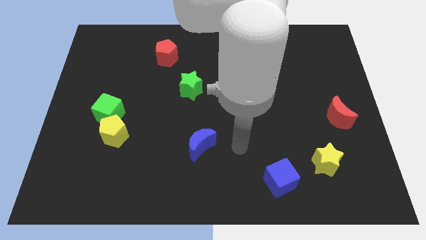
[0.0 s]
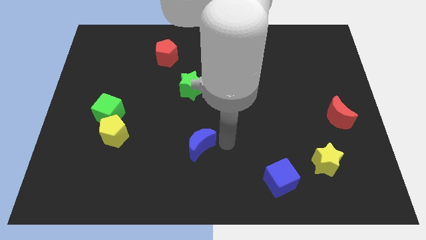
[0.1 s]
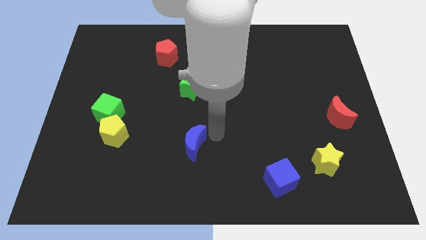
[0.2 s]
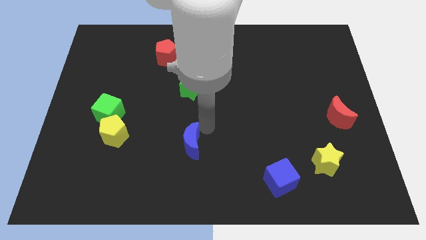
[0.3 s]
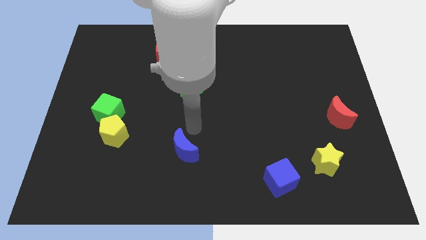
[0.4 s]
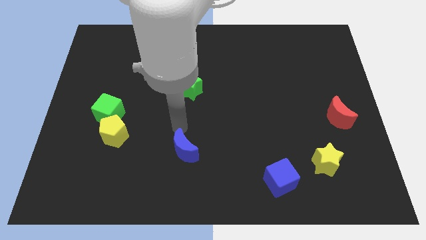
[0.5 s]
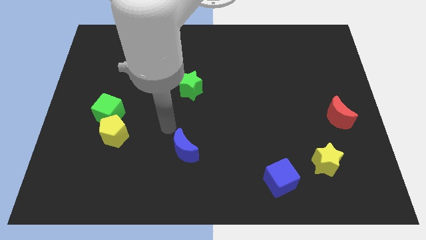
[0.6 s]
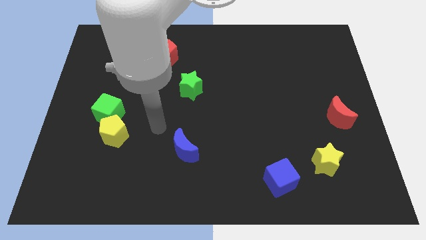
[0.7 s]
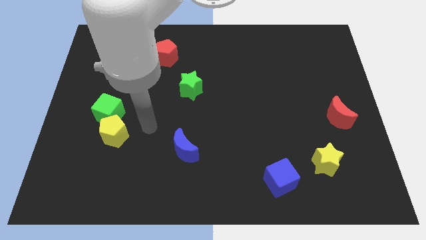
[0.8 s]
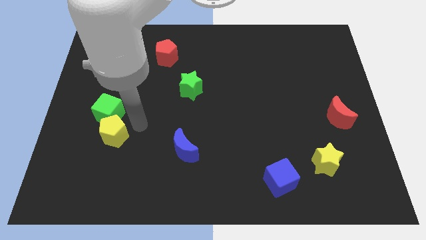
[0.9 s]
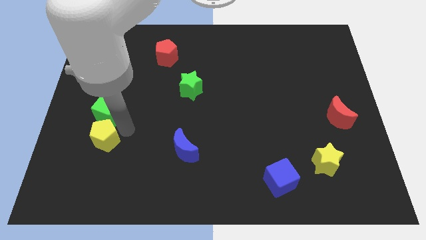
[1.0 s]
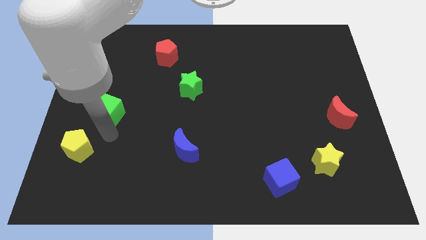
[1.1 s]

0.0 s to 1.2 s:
move the green cube away from the yellow pentagon

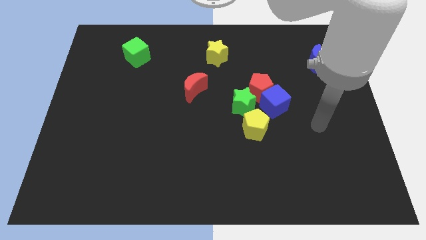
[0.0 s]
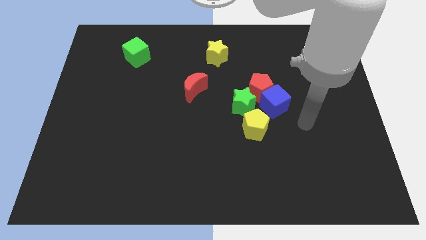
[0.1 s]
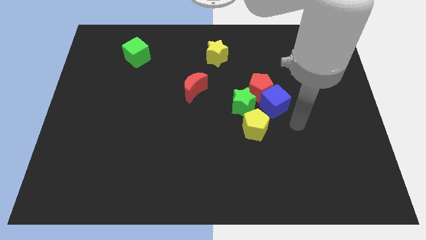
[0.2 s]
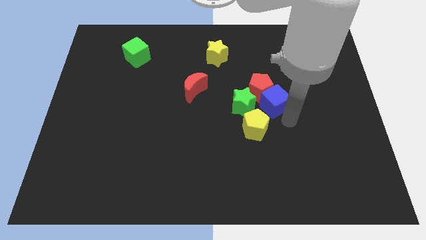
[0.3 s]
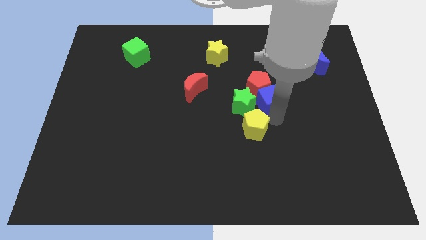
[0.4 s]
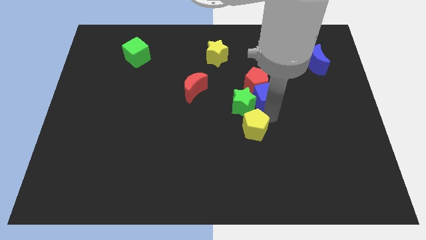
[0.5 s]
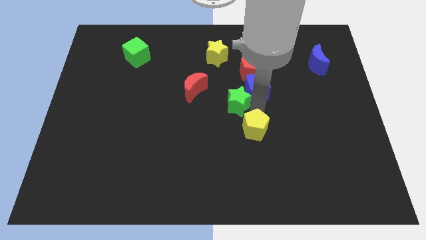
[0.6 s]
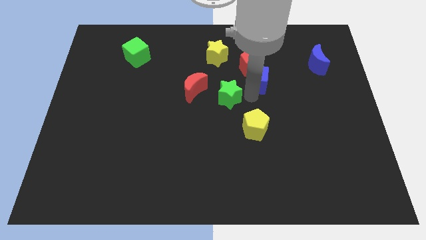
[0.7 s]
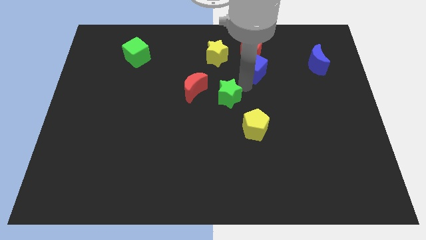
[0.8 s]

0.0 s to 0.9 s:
separate the red pentagon from the blue cube and green star

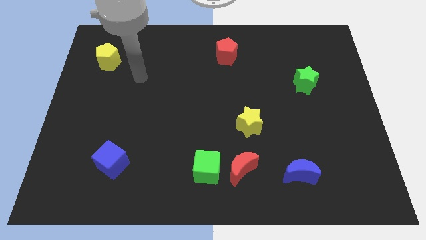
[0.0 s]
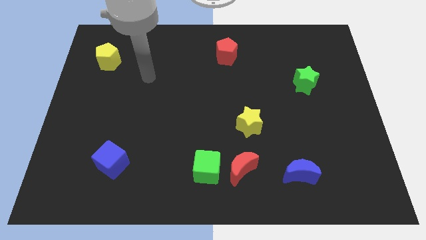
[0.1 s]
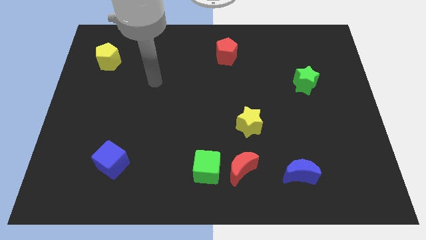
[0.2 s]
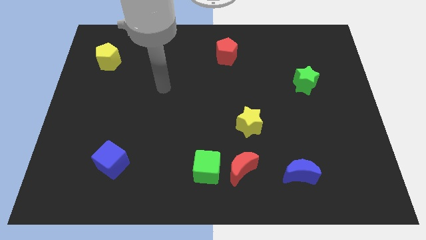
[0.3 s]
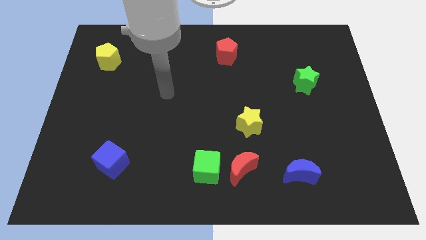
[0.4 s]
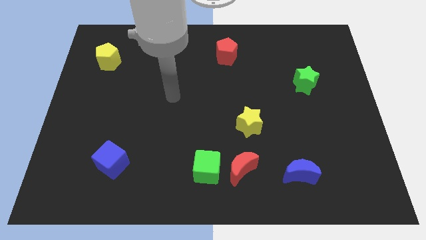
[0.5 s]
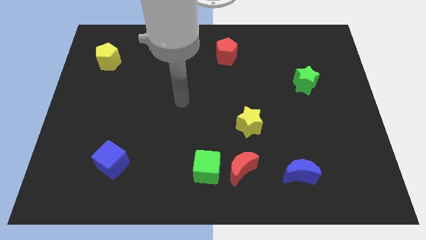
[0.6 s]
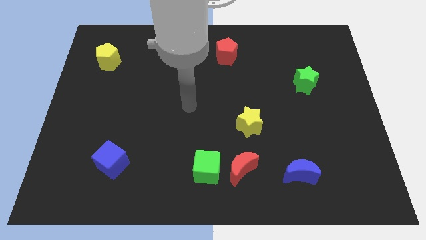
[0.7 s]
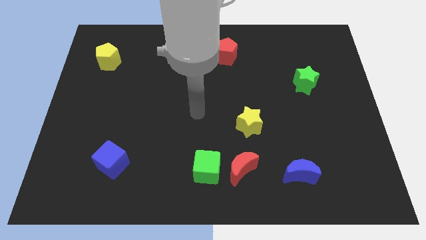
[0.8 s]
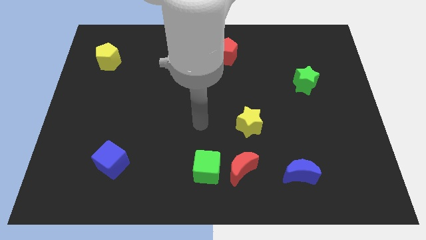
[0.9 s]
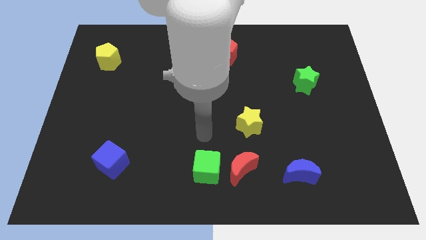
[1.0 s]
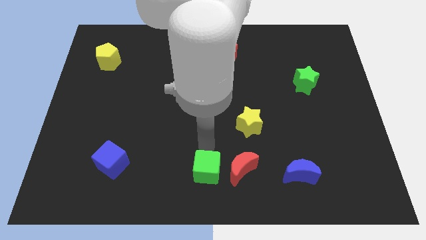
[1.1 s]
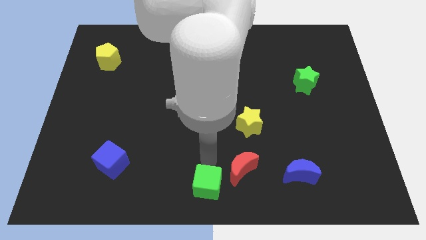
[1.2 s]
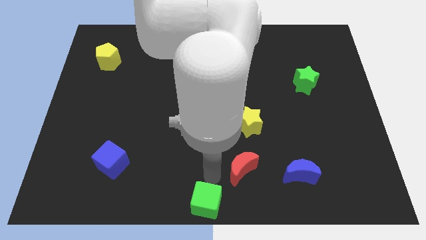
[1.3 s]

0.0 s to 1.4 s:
move the red moon away from the green cube

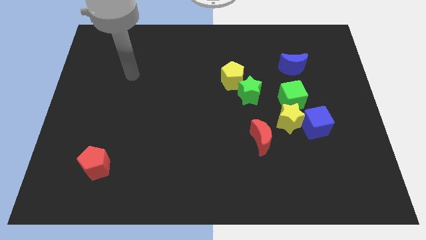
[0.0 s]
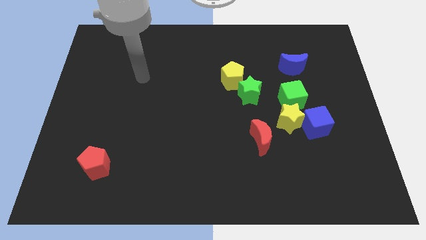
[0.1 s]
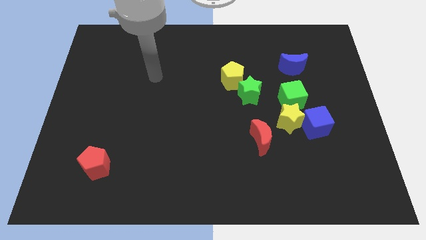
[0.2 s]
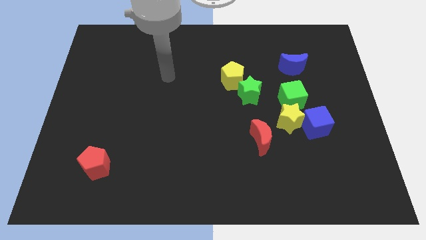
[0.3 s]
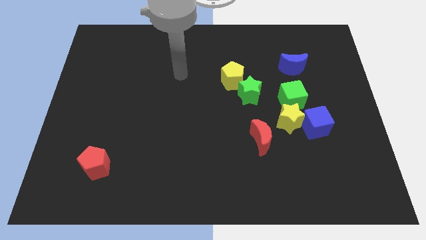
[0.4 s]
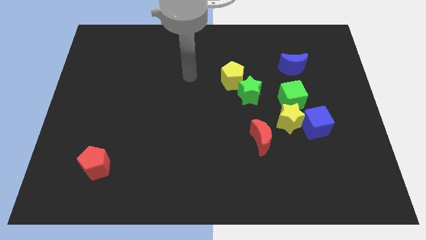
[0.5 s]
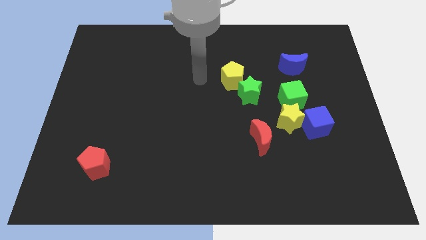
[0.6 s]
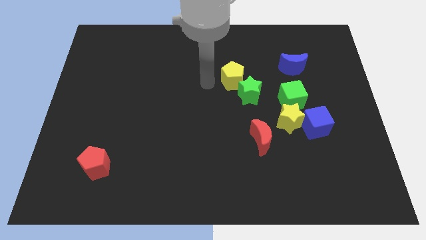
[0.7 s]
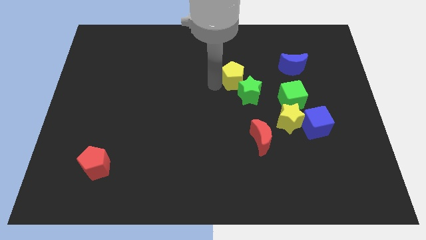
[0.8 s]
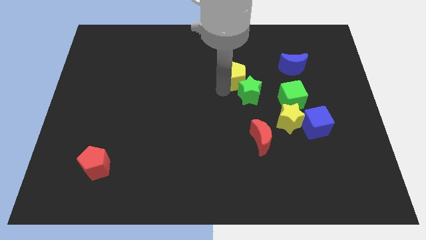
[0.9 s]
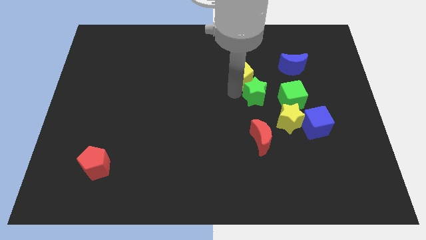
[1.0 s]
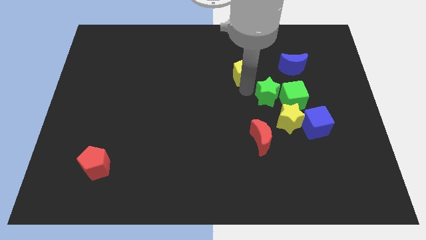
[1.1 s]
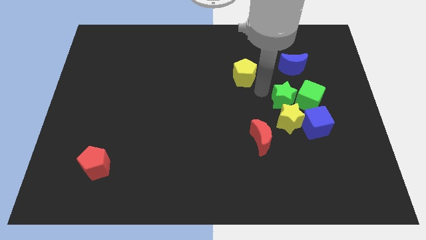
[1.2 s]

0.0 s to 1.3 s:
separate the yellow pentagon from the green star

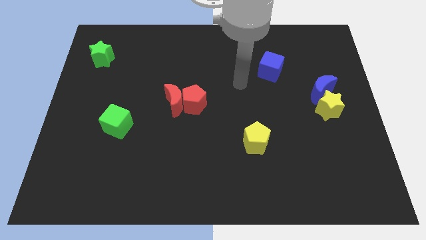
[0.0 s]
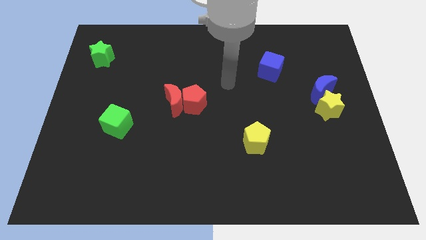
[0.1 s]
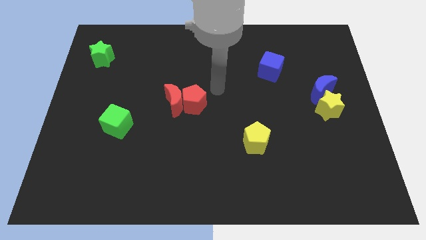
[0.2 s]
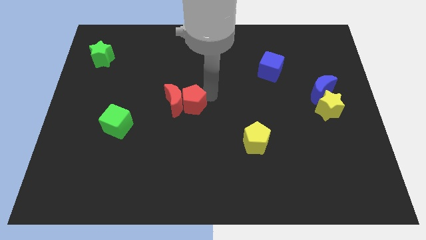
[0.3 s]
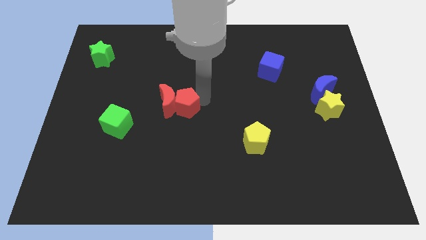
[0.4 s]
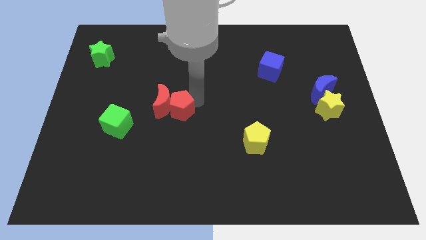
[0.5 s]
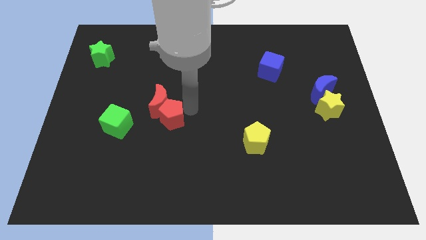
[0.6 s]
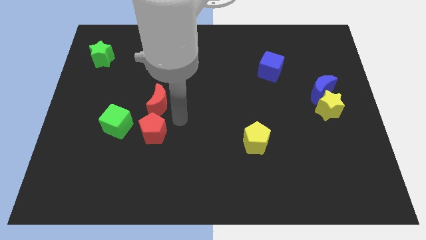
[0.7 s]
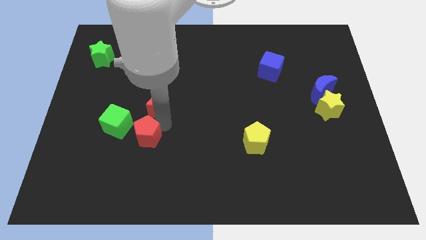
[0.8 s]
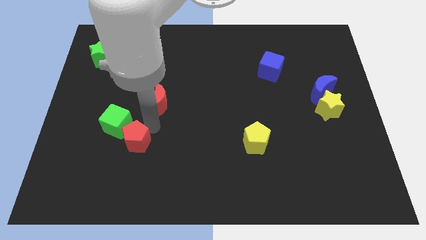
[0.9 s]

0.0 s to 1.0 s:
separate the red moon from the red pentagon

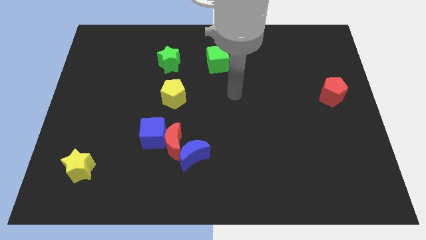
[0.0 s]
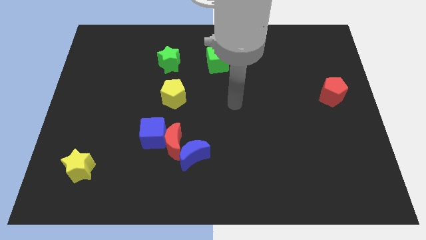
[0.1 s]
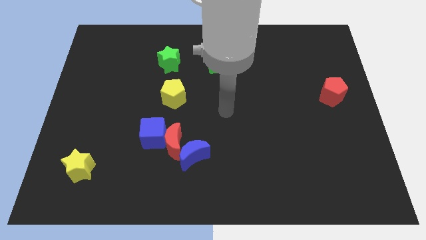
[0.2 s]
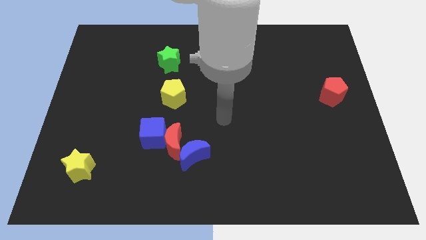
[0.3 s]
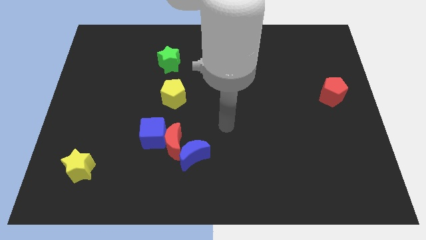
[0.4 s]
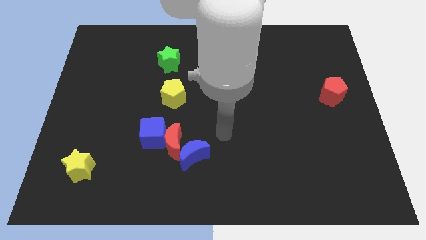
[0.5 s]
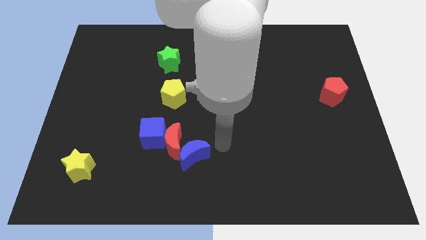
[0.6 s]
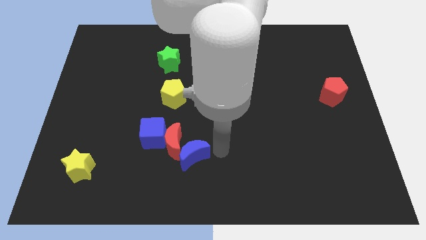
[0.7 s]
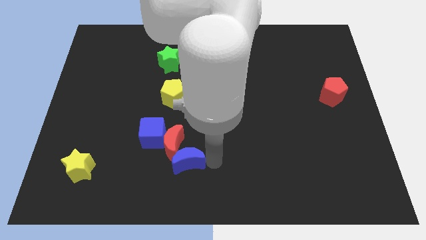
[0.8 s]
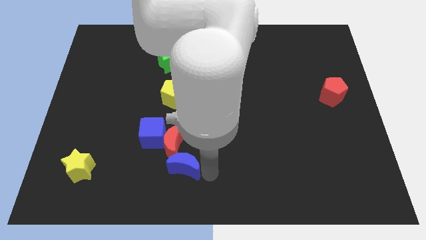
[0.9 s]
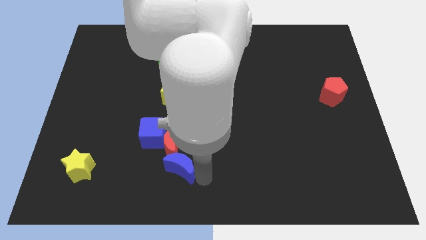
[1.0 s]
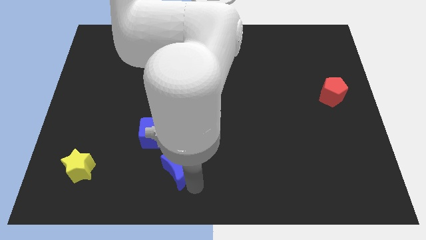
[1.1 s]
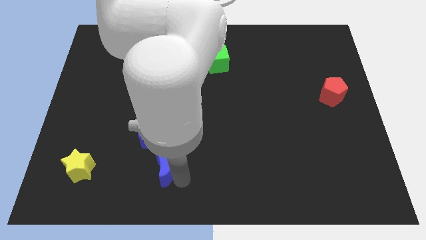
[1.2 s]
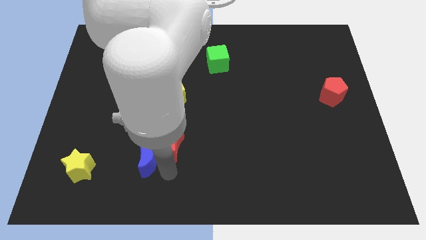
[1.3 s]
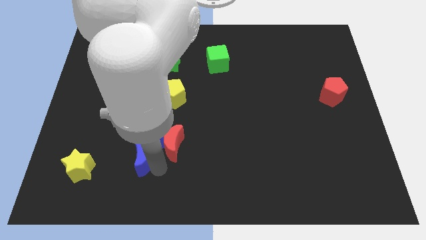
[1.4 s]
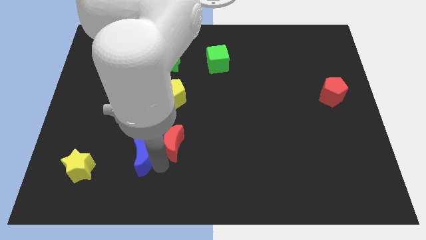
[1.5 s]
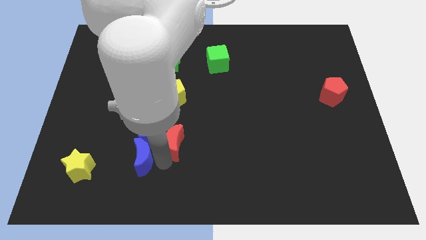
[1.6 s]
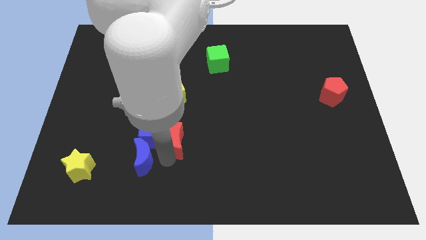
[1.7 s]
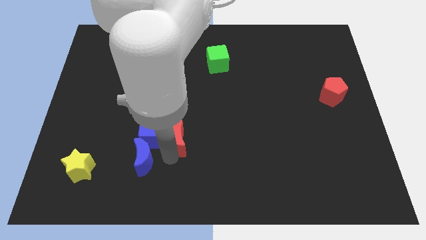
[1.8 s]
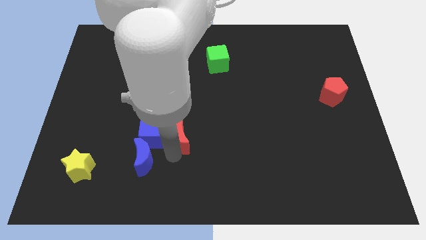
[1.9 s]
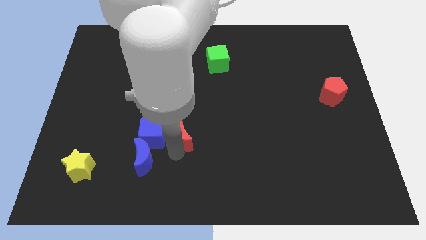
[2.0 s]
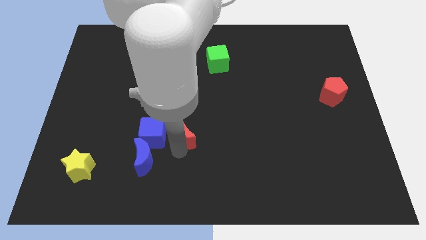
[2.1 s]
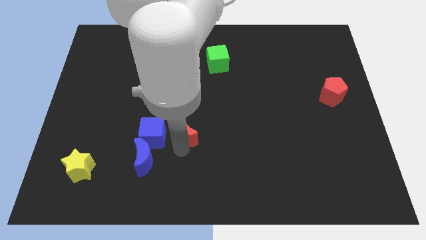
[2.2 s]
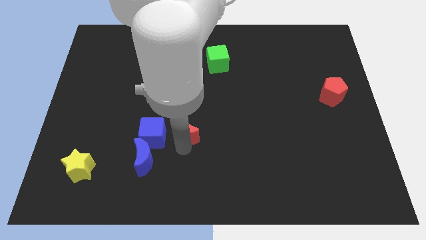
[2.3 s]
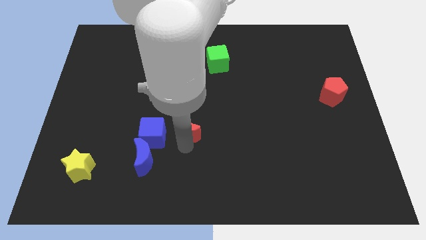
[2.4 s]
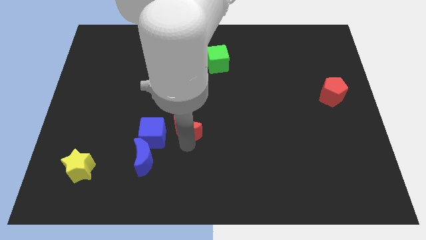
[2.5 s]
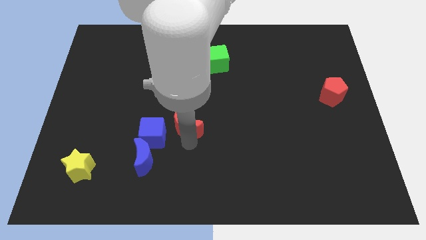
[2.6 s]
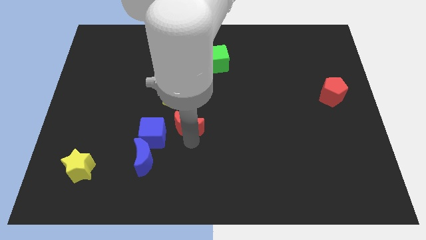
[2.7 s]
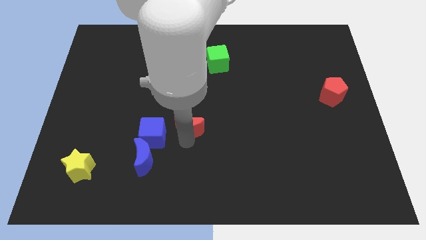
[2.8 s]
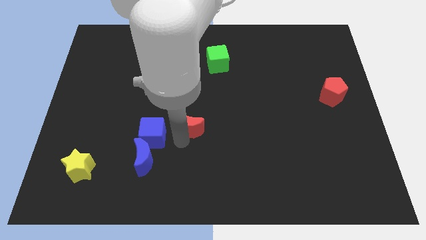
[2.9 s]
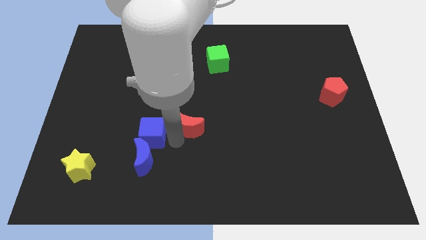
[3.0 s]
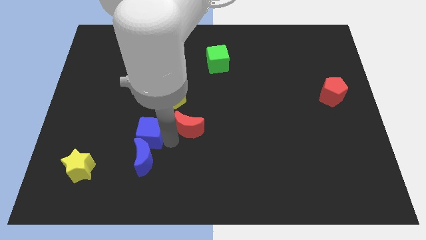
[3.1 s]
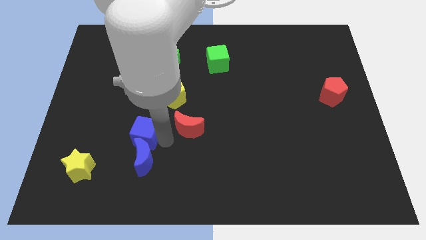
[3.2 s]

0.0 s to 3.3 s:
separate the red moon from the blue cube and blue moon
